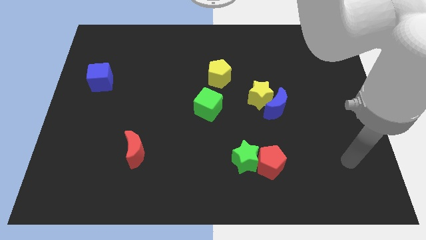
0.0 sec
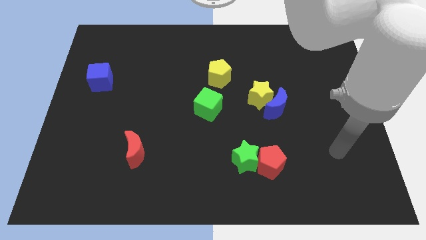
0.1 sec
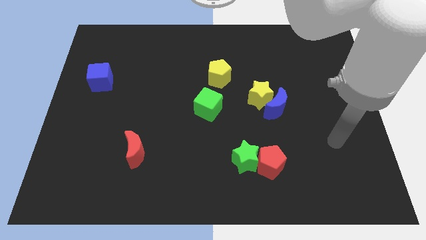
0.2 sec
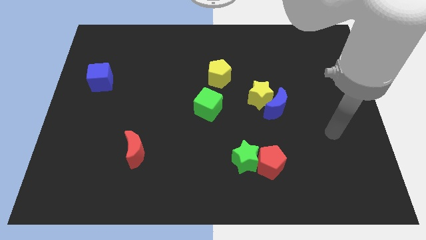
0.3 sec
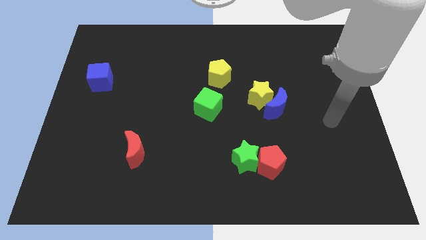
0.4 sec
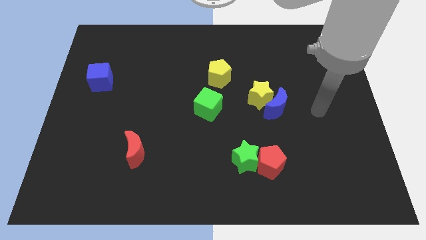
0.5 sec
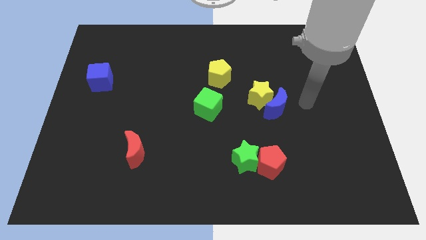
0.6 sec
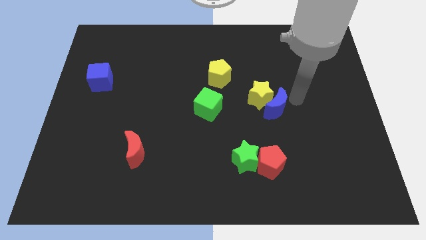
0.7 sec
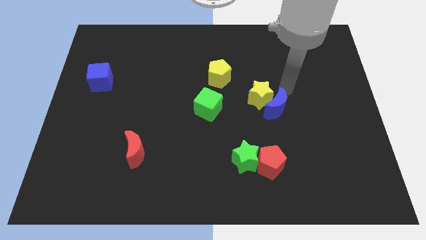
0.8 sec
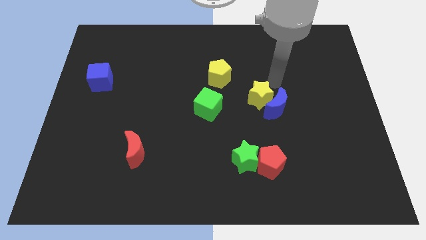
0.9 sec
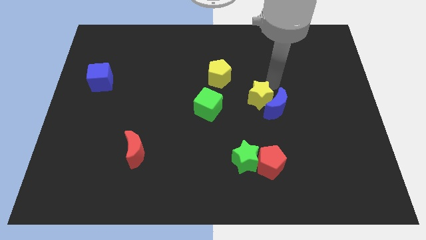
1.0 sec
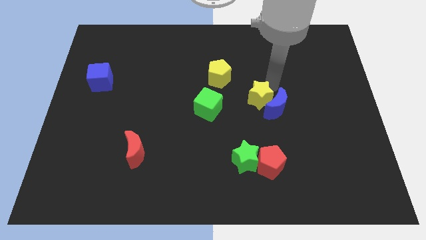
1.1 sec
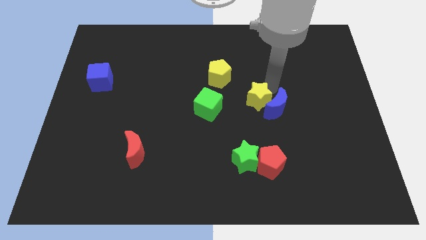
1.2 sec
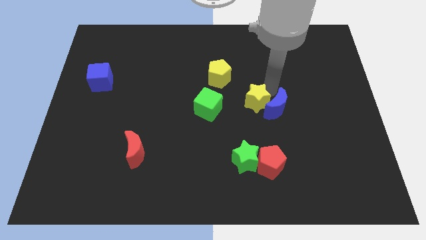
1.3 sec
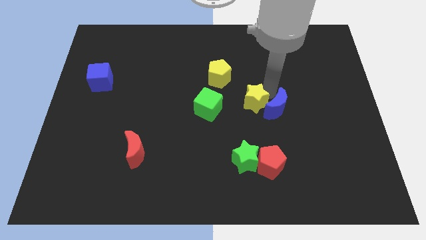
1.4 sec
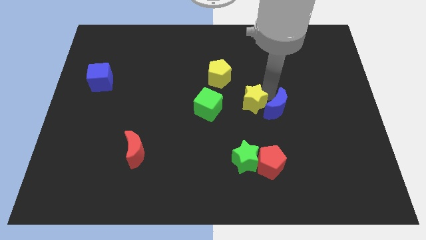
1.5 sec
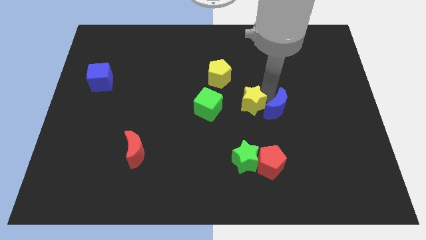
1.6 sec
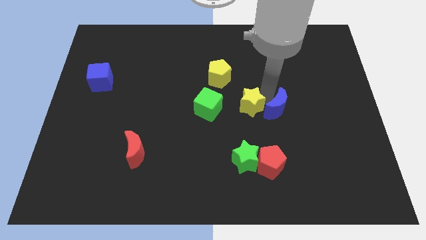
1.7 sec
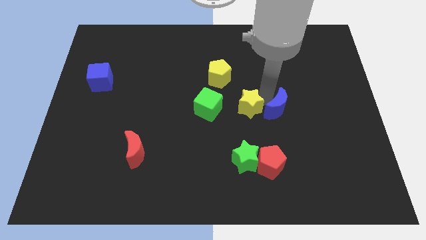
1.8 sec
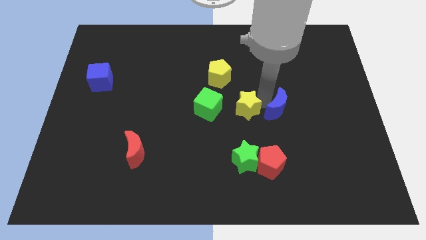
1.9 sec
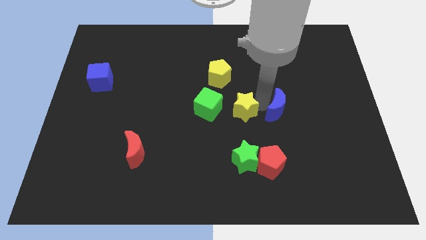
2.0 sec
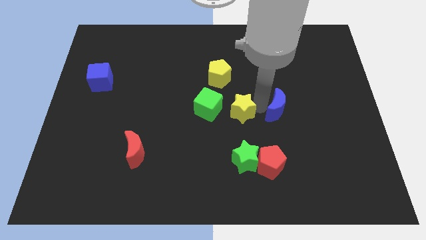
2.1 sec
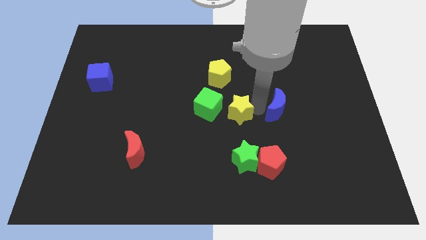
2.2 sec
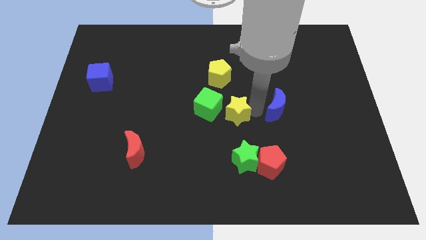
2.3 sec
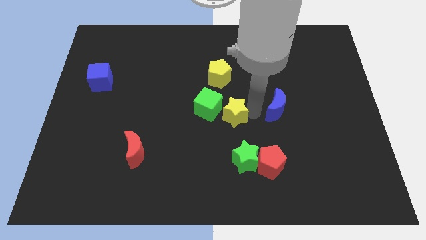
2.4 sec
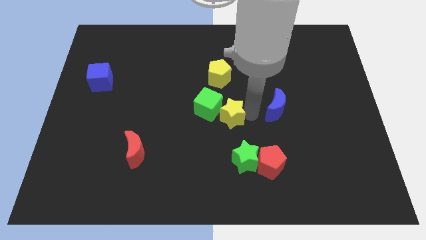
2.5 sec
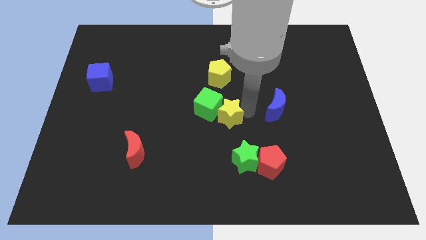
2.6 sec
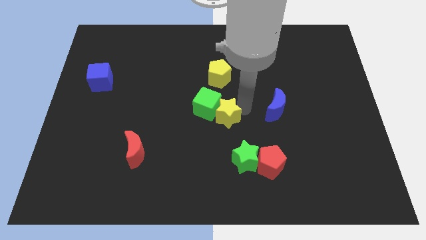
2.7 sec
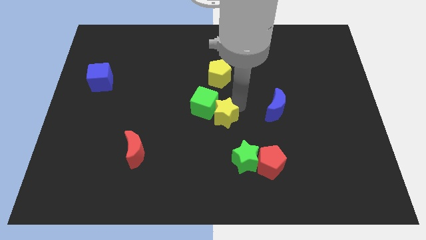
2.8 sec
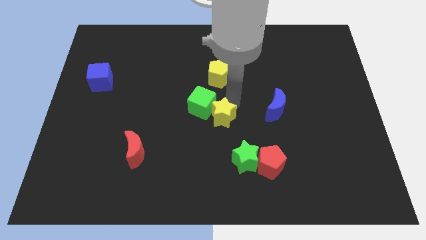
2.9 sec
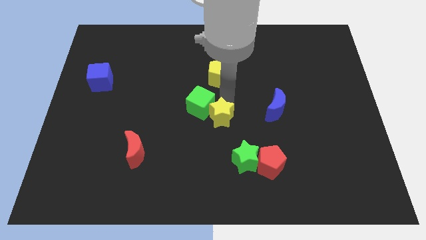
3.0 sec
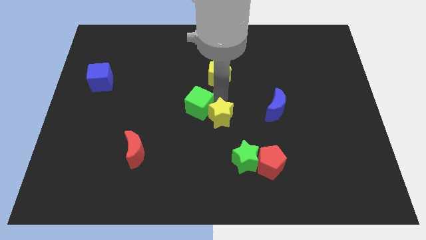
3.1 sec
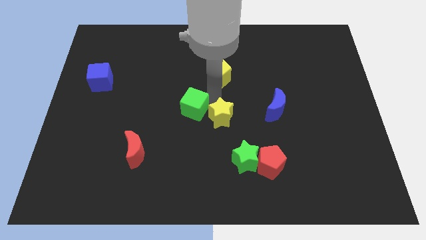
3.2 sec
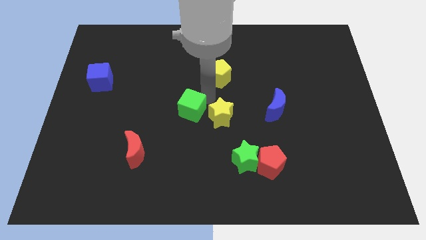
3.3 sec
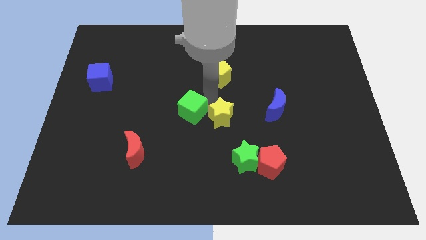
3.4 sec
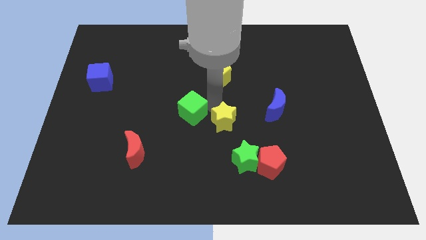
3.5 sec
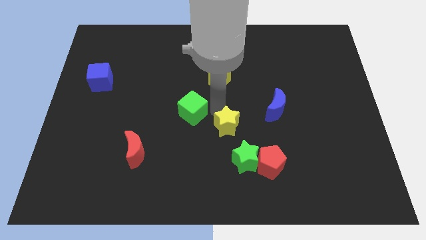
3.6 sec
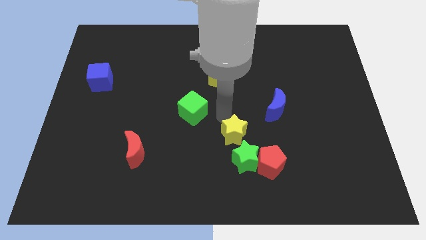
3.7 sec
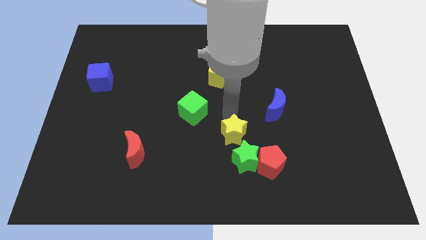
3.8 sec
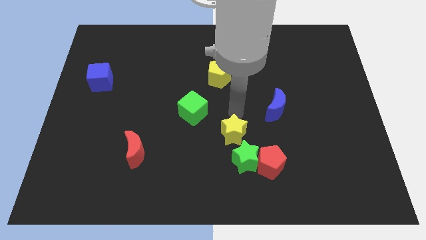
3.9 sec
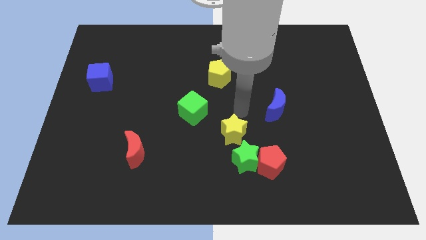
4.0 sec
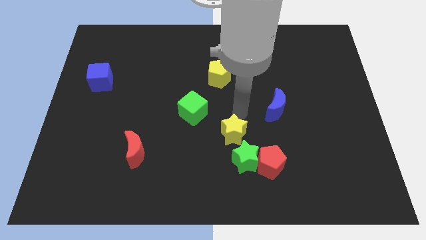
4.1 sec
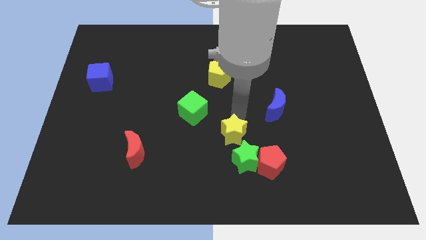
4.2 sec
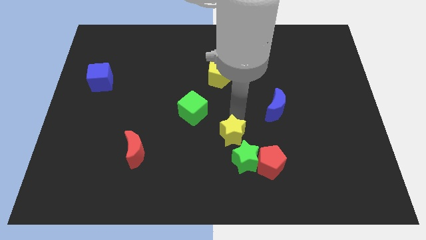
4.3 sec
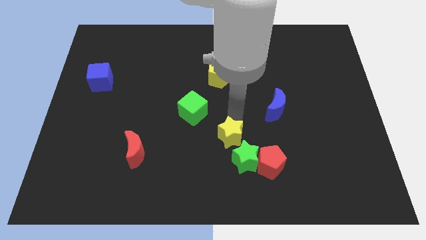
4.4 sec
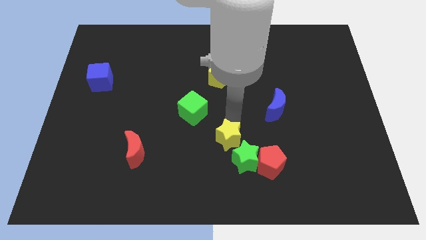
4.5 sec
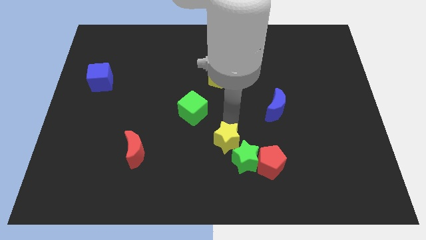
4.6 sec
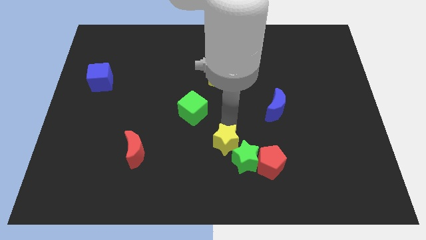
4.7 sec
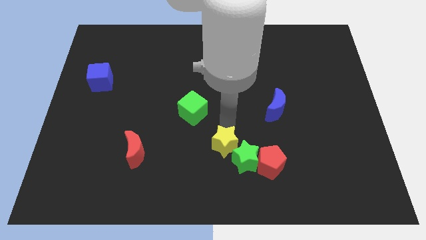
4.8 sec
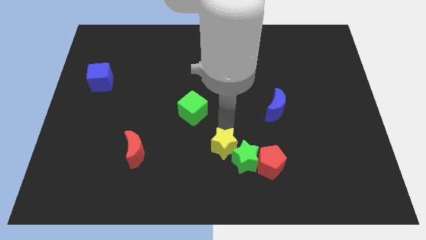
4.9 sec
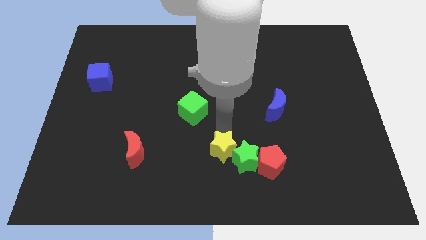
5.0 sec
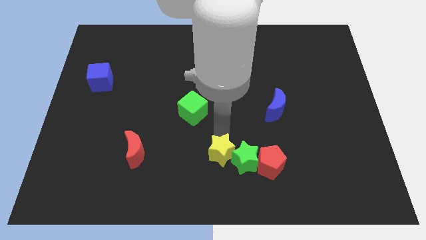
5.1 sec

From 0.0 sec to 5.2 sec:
move the yellow star to the bottom side

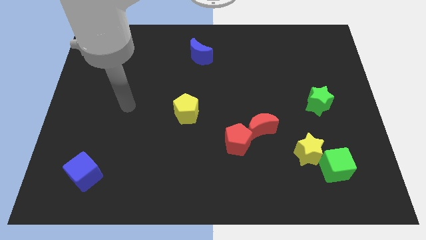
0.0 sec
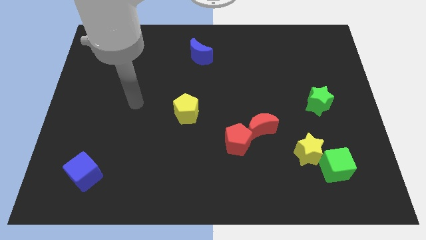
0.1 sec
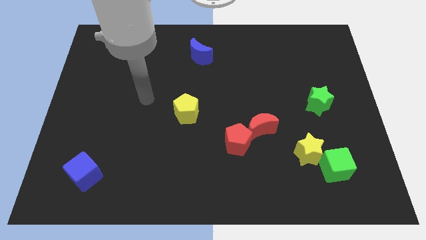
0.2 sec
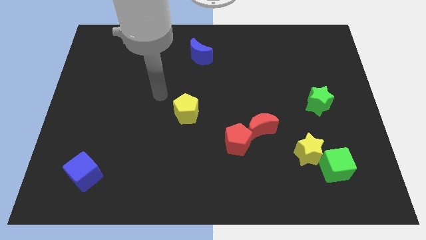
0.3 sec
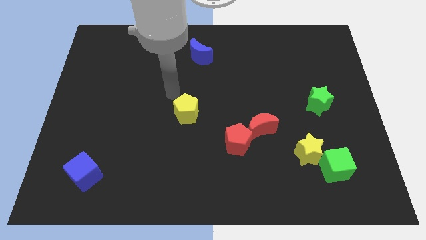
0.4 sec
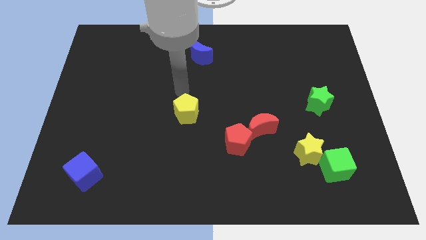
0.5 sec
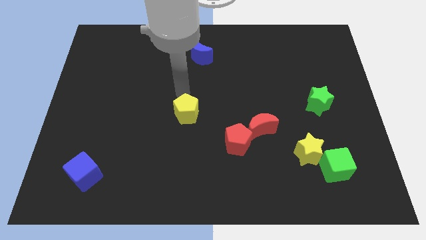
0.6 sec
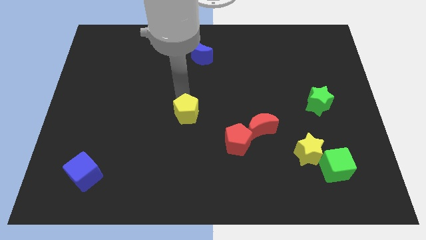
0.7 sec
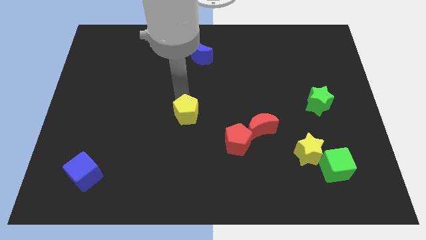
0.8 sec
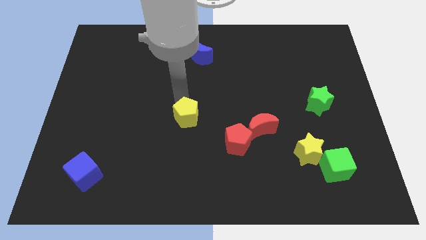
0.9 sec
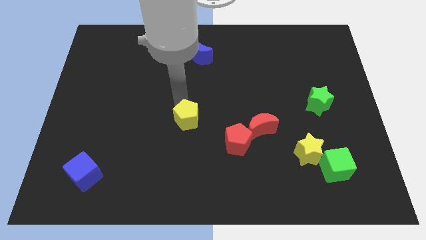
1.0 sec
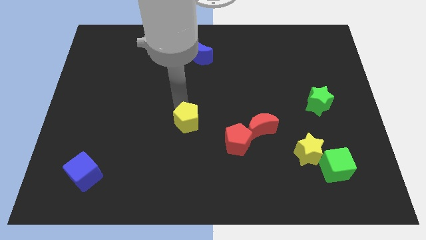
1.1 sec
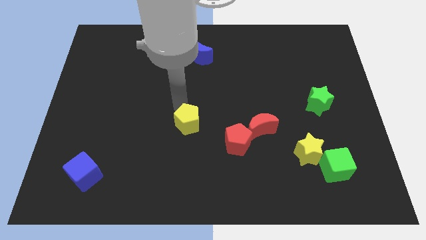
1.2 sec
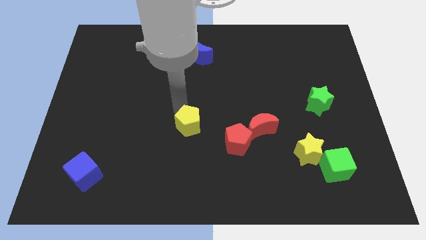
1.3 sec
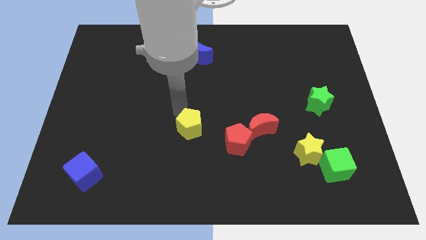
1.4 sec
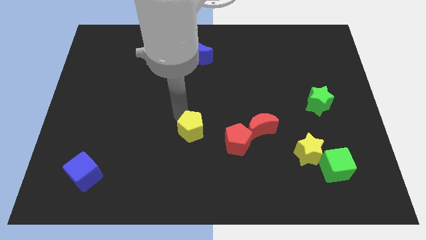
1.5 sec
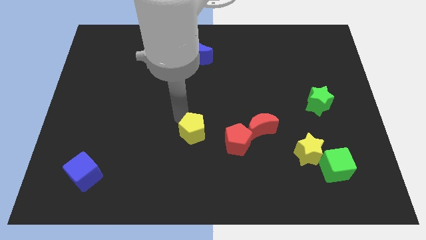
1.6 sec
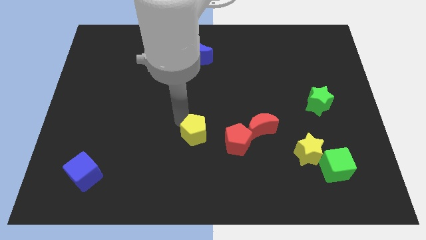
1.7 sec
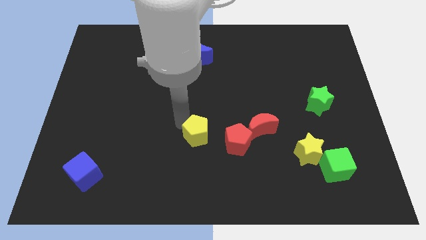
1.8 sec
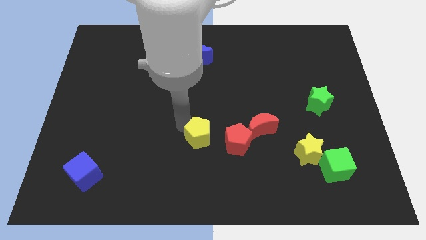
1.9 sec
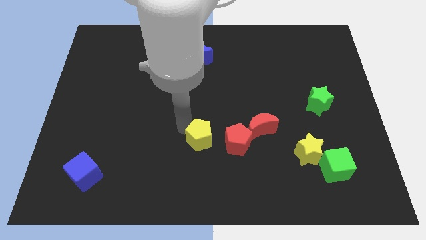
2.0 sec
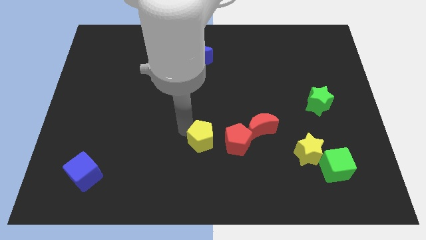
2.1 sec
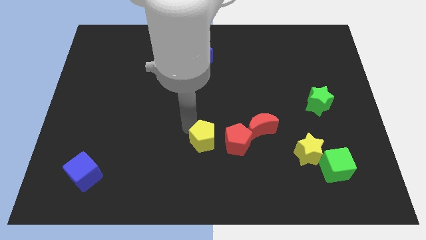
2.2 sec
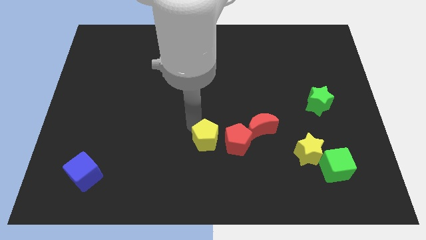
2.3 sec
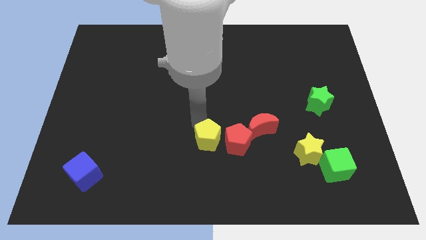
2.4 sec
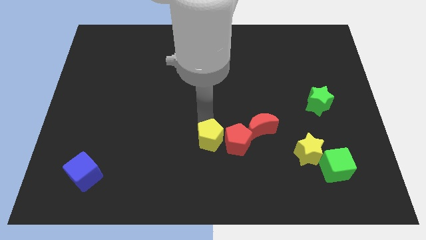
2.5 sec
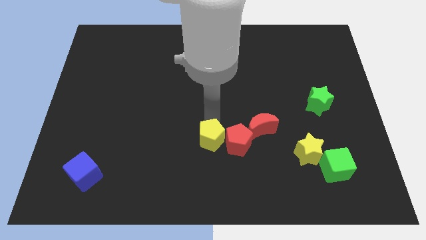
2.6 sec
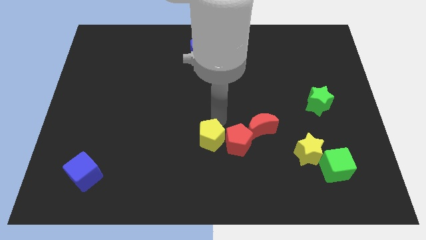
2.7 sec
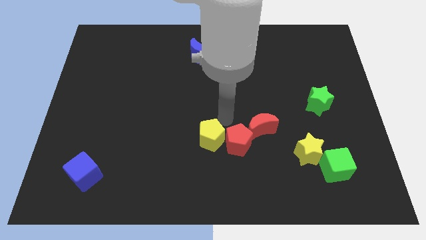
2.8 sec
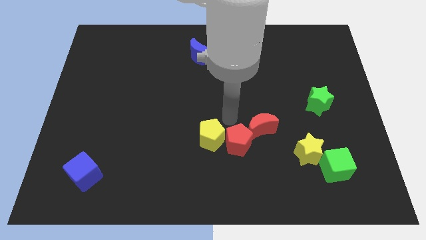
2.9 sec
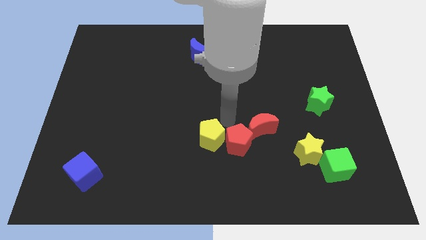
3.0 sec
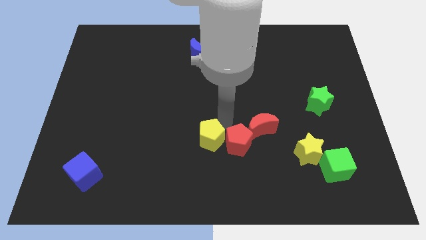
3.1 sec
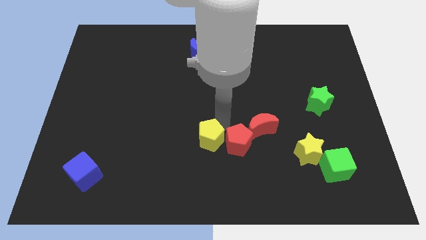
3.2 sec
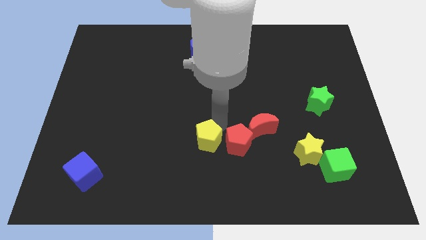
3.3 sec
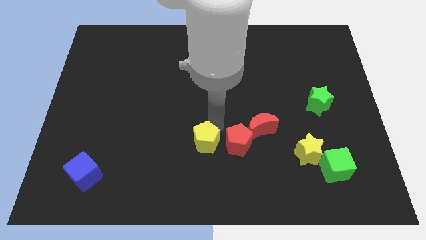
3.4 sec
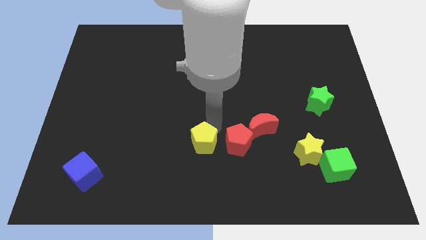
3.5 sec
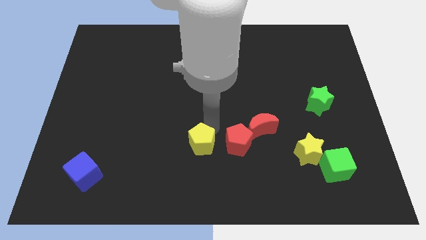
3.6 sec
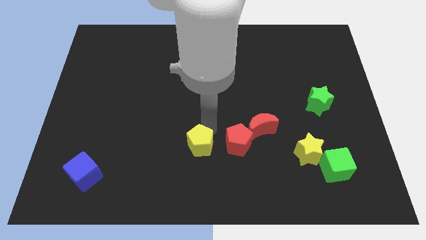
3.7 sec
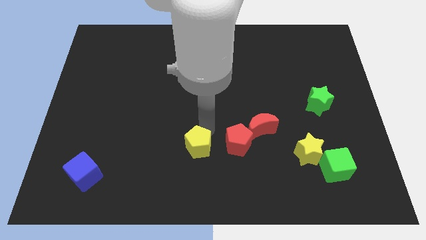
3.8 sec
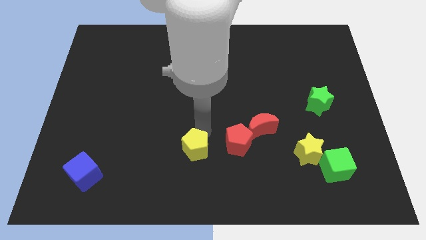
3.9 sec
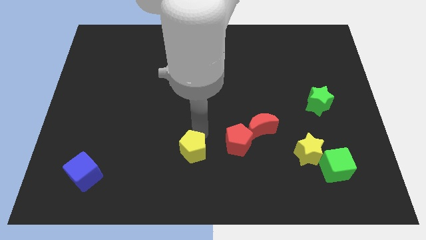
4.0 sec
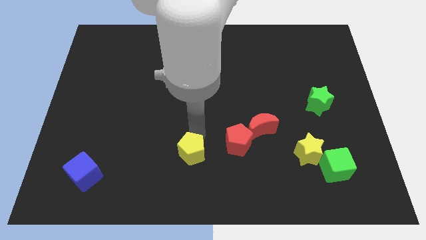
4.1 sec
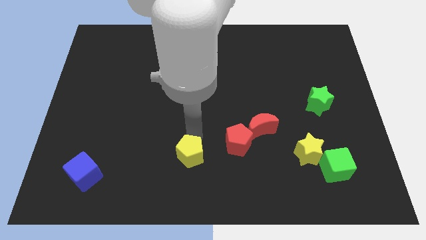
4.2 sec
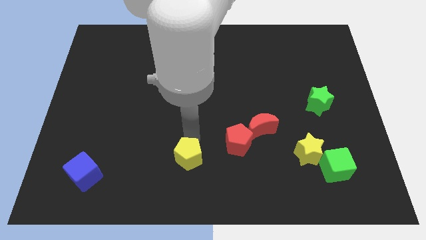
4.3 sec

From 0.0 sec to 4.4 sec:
slide the yellow pentagon to the bottom
